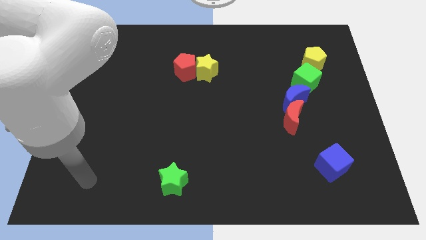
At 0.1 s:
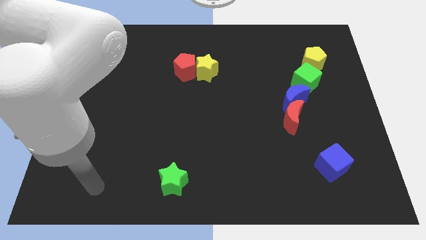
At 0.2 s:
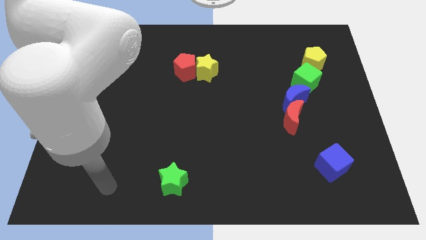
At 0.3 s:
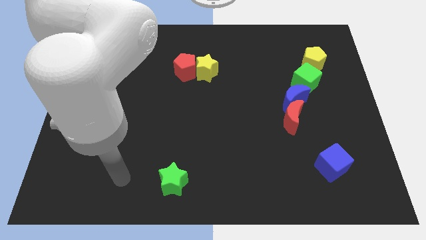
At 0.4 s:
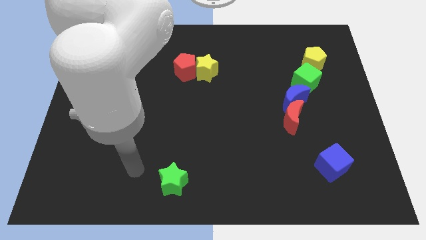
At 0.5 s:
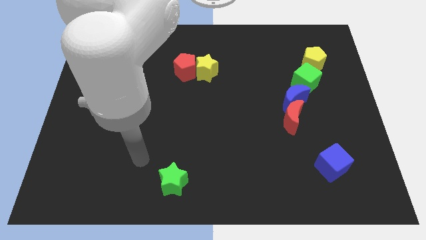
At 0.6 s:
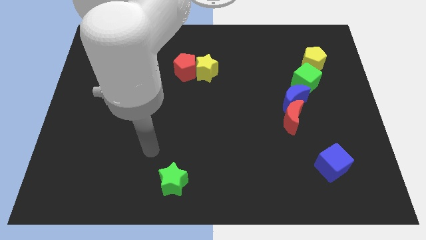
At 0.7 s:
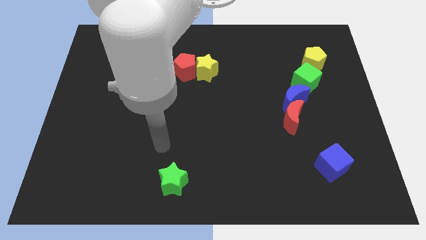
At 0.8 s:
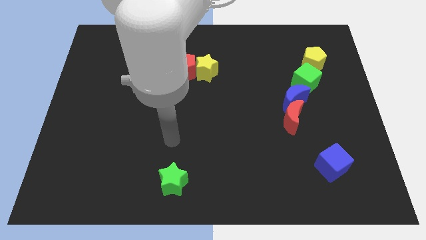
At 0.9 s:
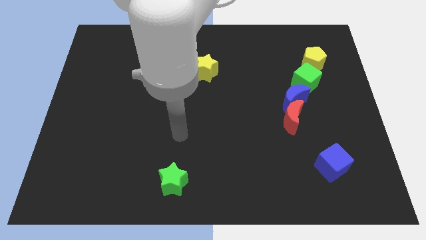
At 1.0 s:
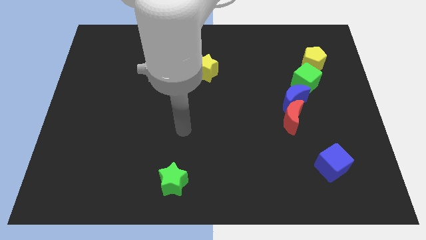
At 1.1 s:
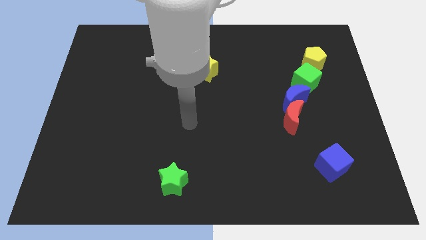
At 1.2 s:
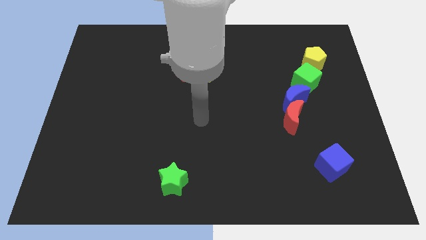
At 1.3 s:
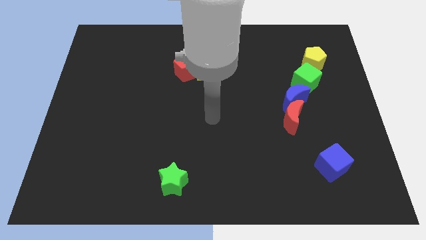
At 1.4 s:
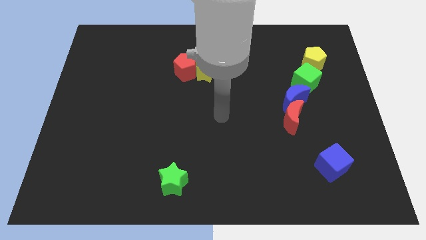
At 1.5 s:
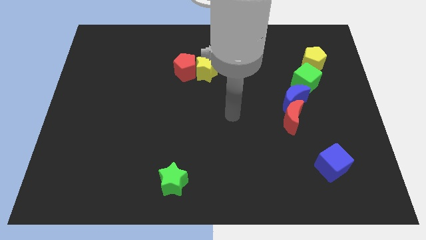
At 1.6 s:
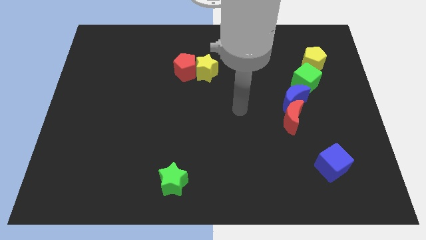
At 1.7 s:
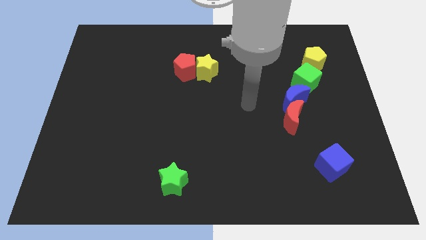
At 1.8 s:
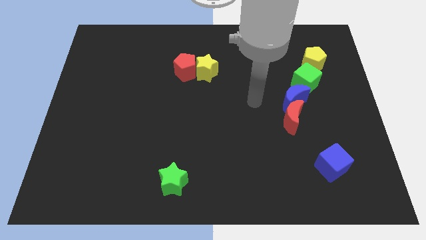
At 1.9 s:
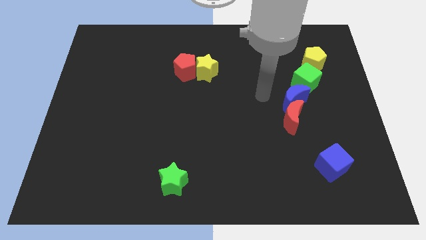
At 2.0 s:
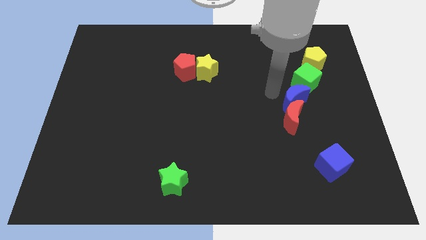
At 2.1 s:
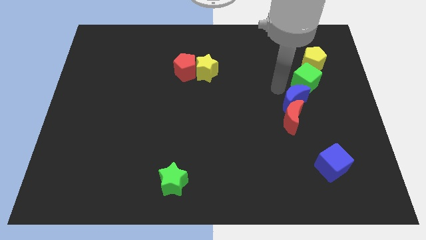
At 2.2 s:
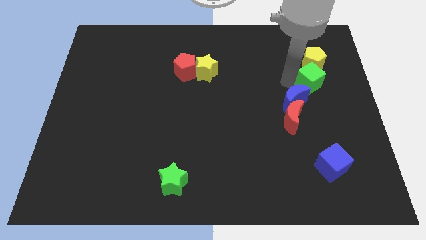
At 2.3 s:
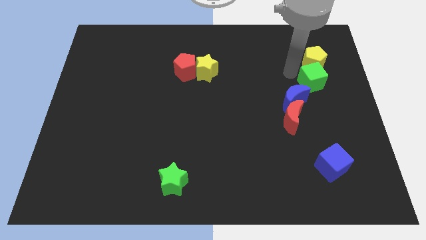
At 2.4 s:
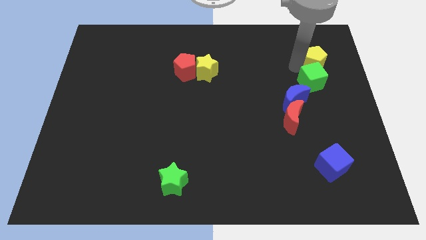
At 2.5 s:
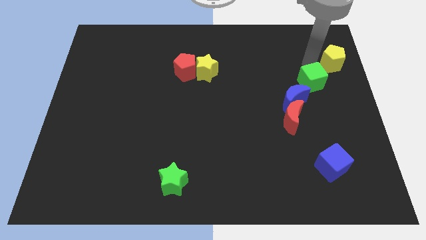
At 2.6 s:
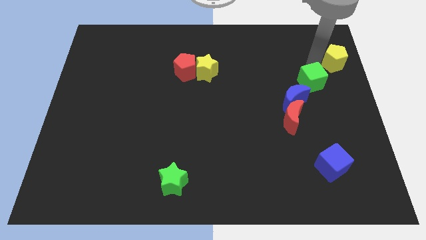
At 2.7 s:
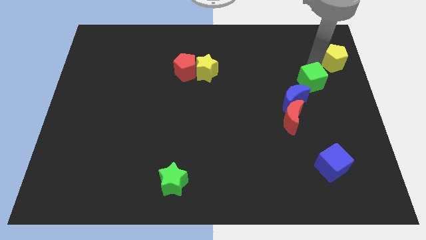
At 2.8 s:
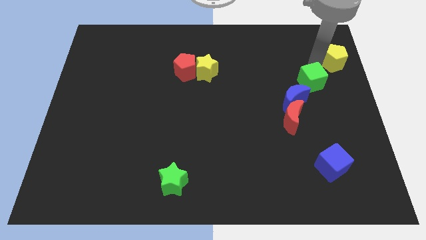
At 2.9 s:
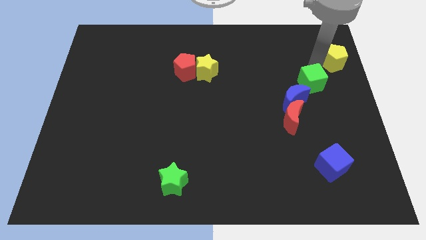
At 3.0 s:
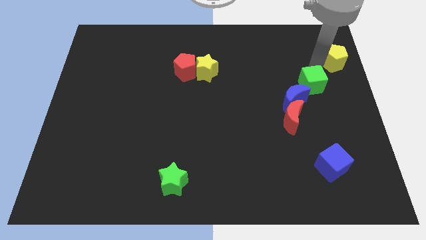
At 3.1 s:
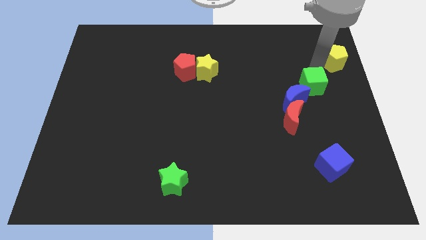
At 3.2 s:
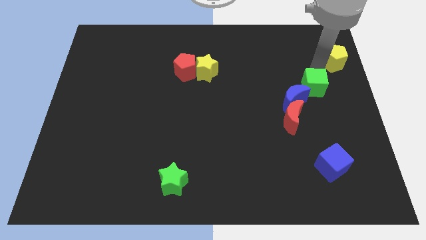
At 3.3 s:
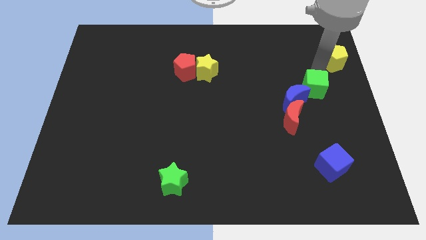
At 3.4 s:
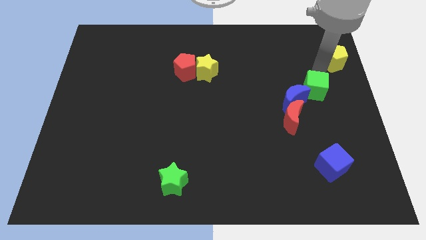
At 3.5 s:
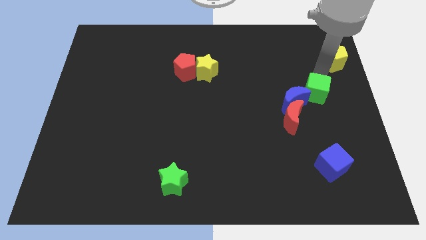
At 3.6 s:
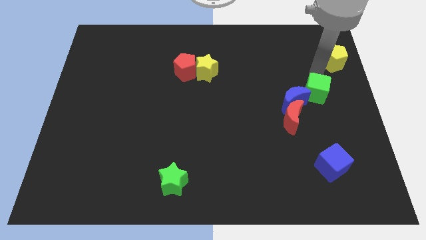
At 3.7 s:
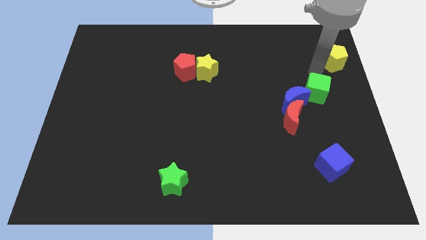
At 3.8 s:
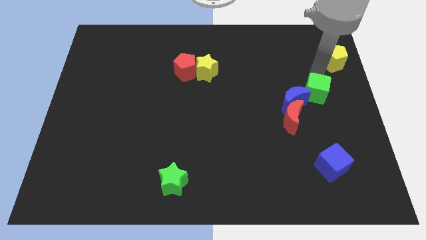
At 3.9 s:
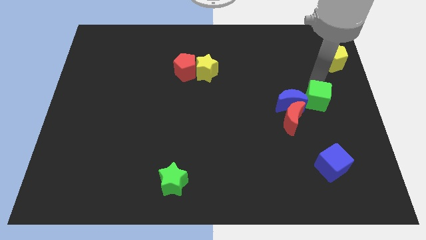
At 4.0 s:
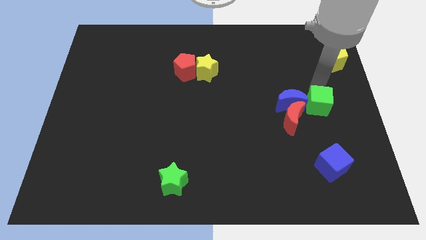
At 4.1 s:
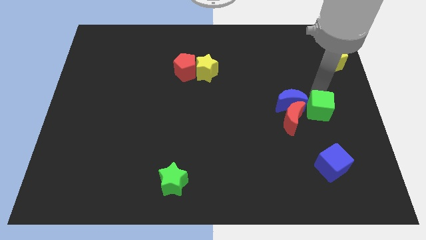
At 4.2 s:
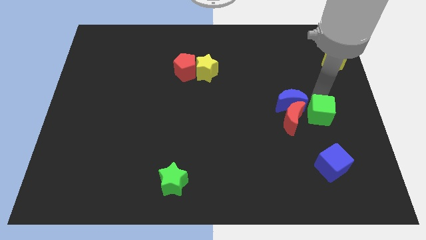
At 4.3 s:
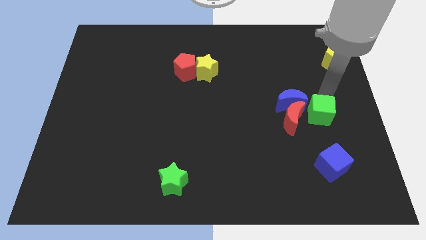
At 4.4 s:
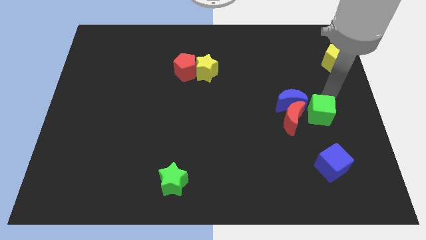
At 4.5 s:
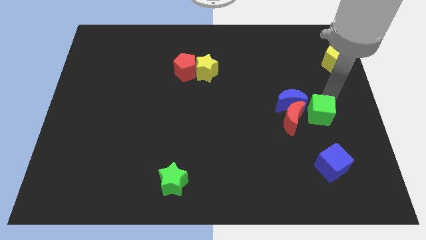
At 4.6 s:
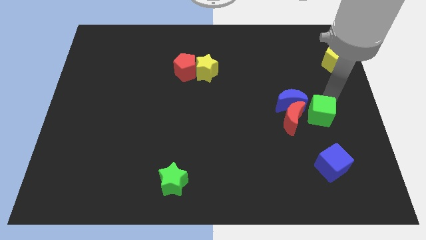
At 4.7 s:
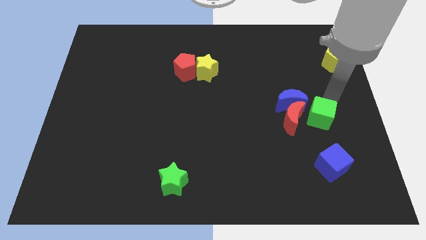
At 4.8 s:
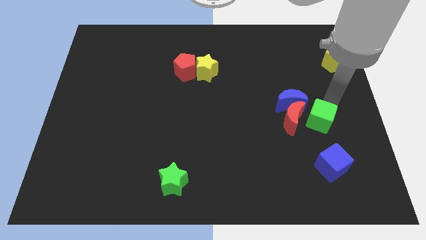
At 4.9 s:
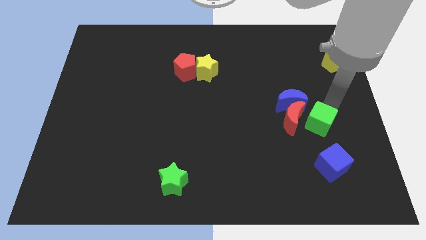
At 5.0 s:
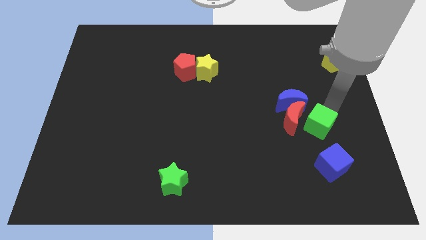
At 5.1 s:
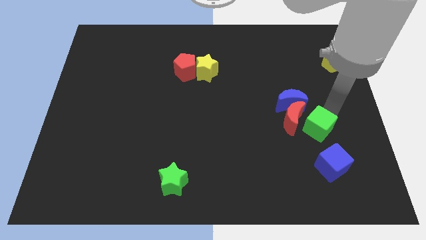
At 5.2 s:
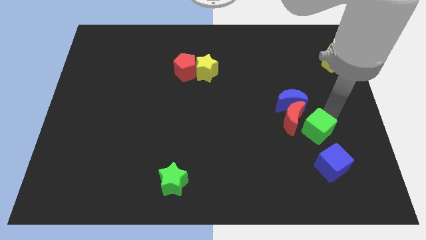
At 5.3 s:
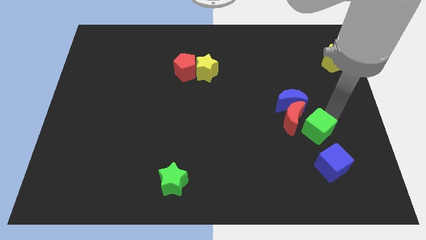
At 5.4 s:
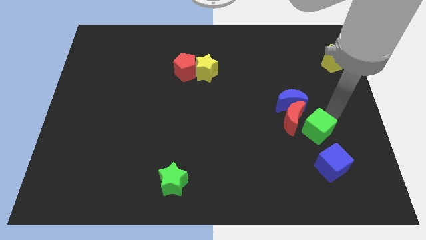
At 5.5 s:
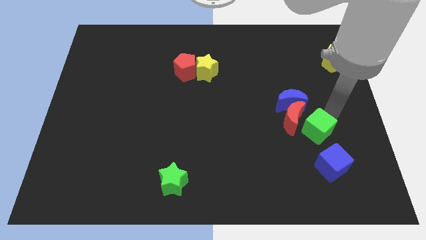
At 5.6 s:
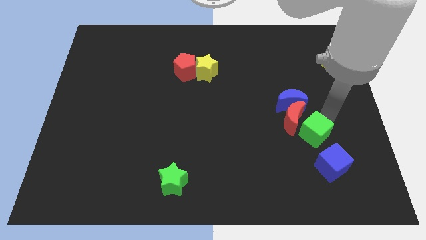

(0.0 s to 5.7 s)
slide the green cube to the top left side of the blue cube

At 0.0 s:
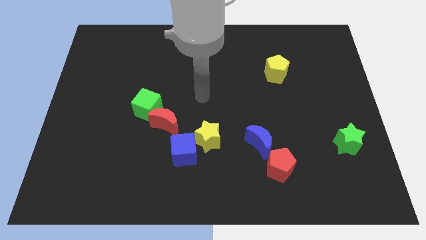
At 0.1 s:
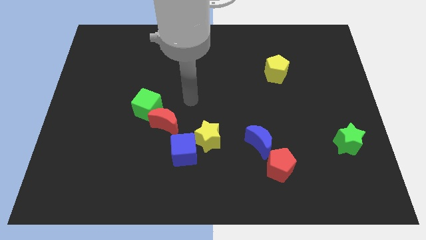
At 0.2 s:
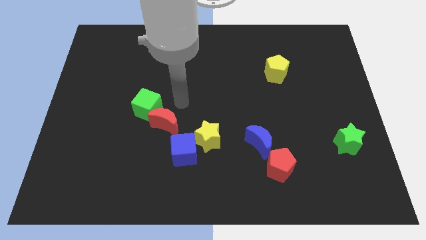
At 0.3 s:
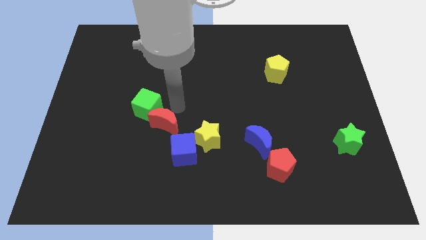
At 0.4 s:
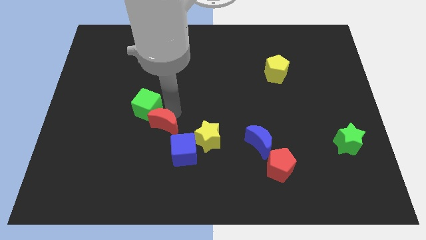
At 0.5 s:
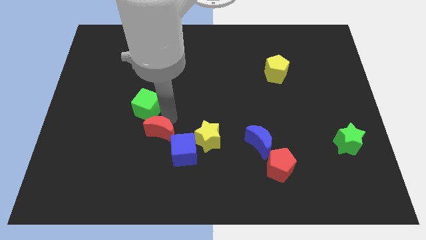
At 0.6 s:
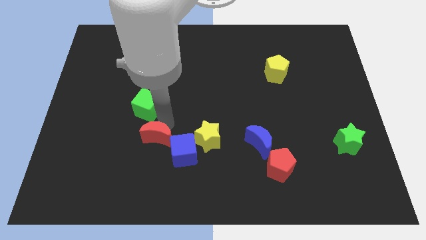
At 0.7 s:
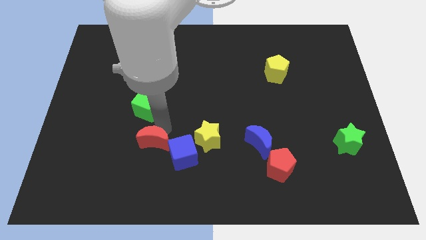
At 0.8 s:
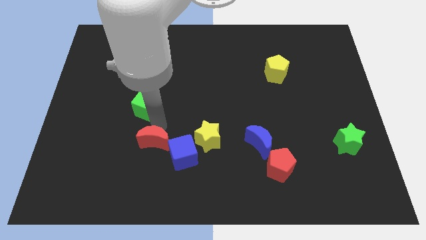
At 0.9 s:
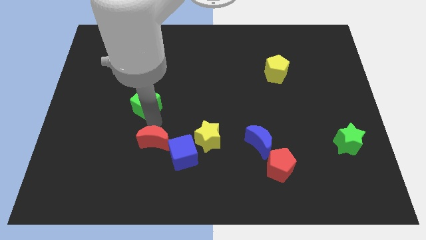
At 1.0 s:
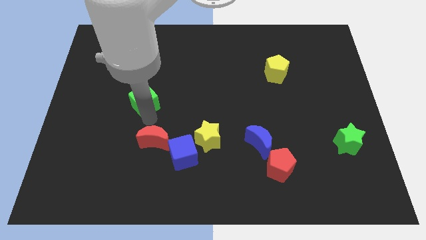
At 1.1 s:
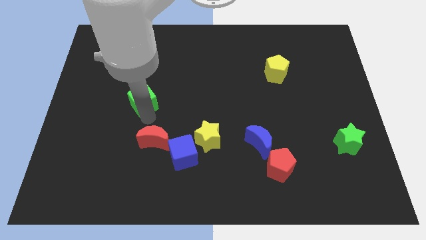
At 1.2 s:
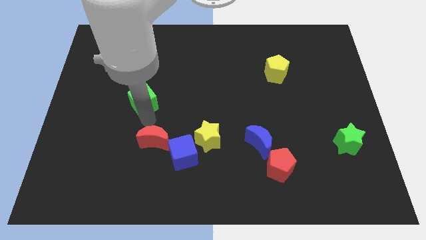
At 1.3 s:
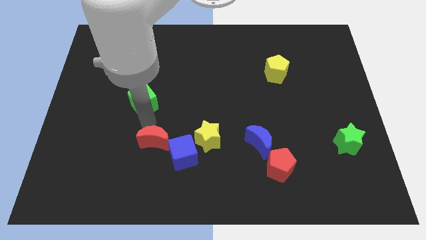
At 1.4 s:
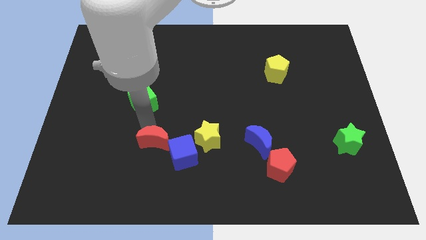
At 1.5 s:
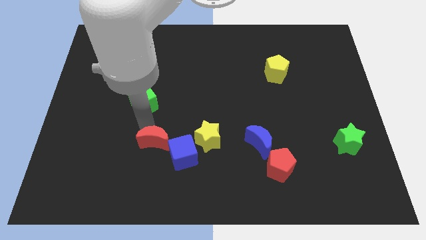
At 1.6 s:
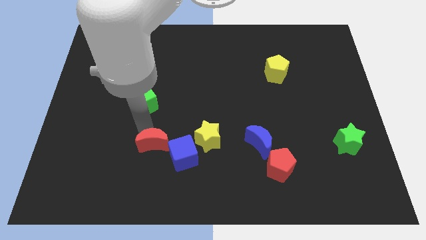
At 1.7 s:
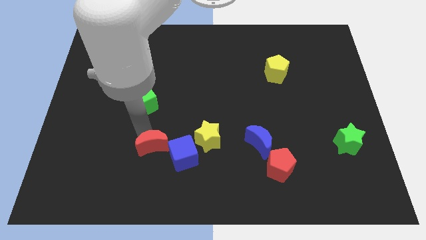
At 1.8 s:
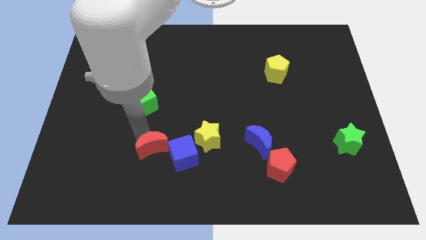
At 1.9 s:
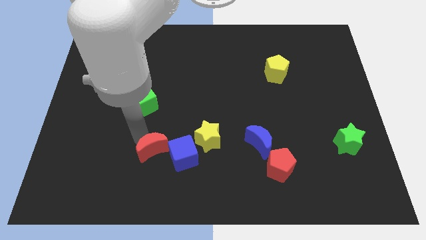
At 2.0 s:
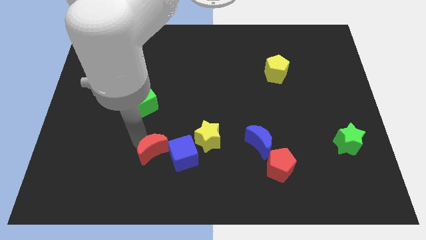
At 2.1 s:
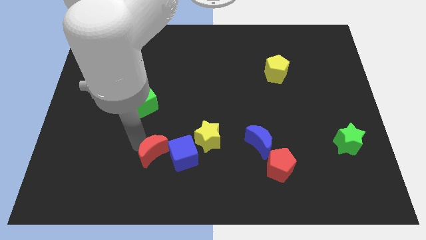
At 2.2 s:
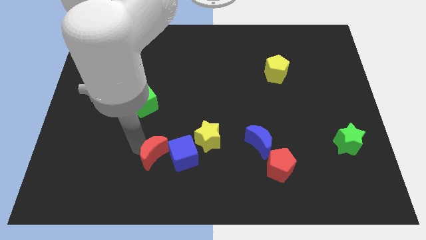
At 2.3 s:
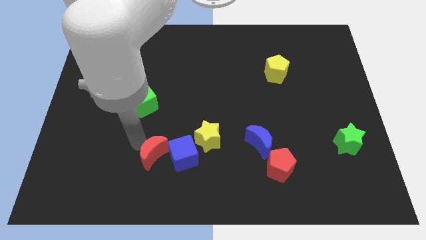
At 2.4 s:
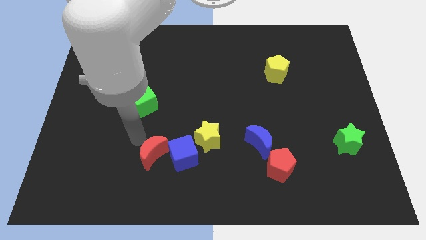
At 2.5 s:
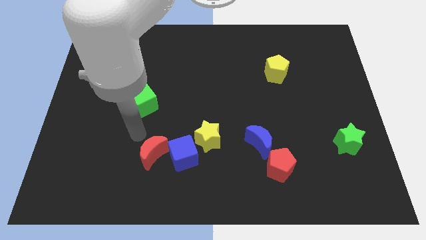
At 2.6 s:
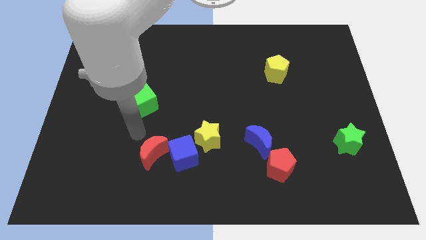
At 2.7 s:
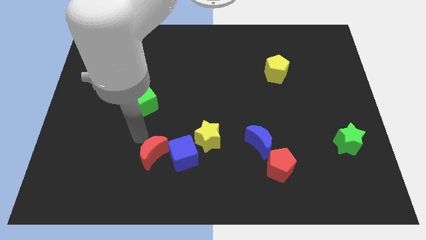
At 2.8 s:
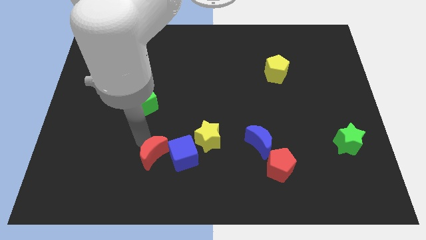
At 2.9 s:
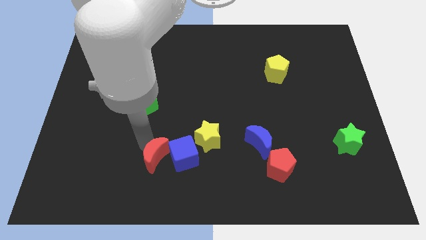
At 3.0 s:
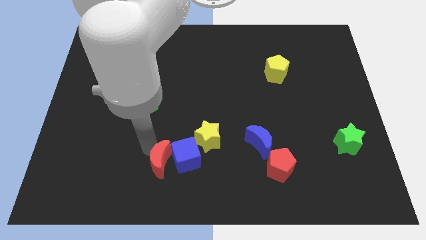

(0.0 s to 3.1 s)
put the red moon to the bottom left side of the yellow star
